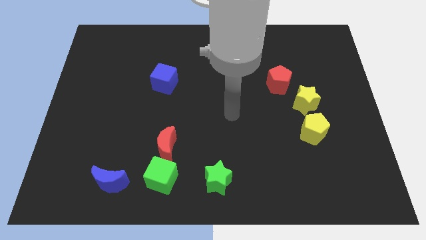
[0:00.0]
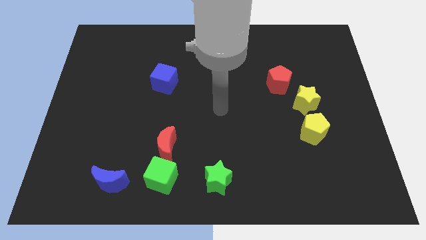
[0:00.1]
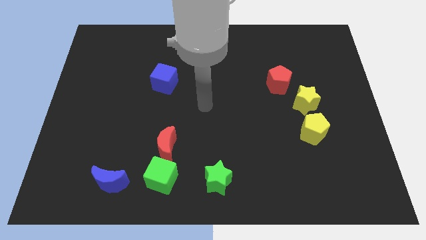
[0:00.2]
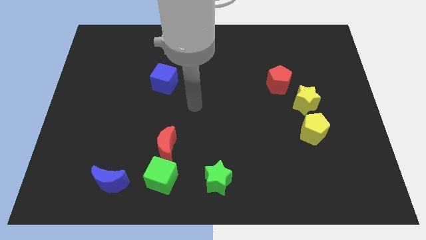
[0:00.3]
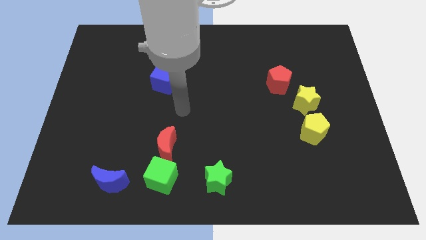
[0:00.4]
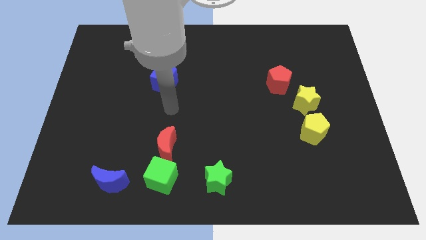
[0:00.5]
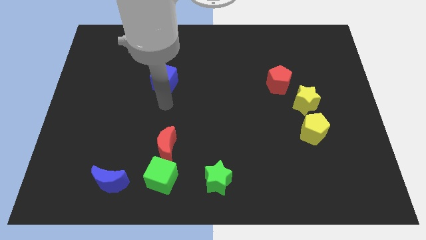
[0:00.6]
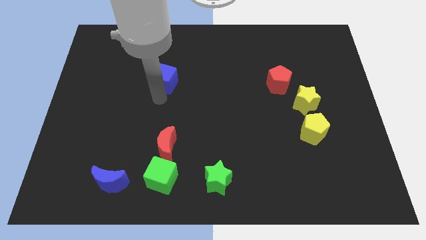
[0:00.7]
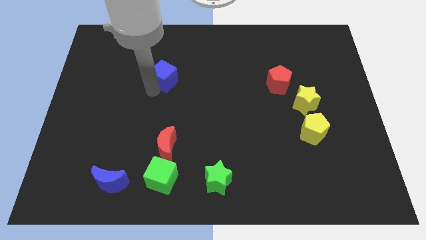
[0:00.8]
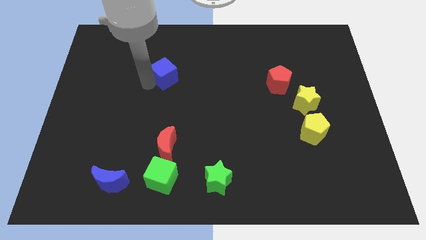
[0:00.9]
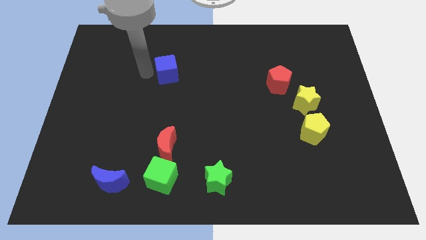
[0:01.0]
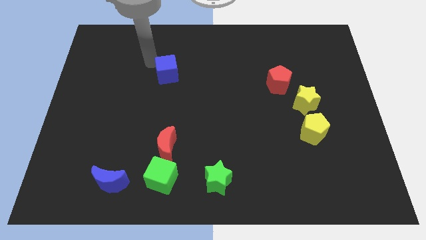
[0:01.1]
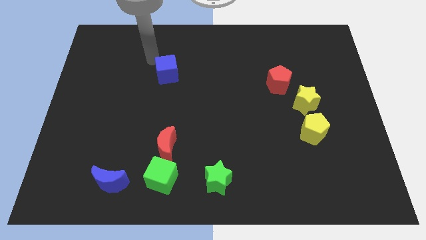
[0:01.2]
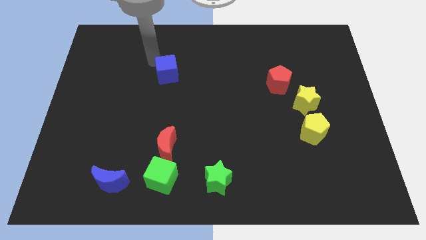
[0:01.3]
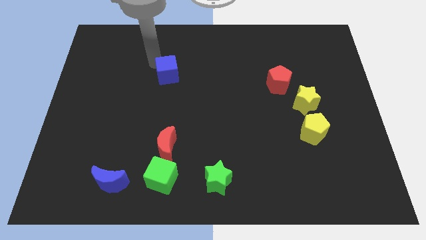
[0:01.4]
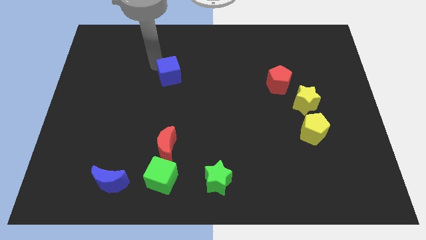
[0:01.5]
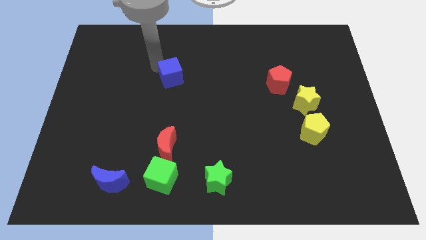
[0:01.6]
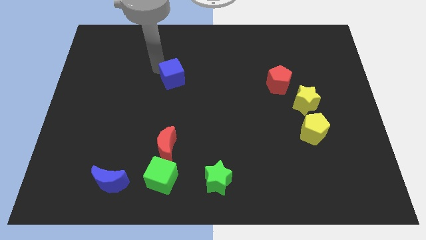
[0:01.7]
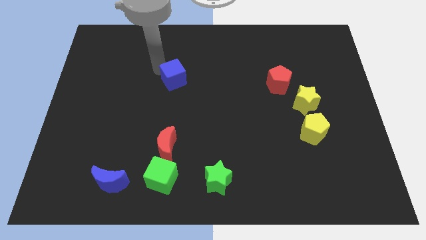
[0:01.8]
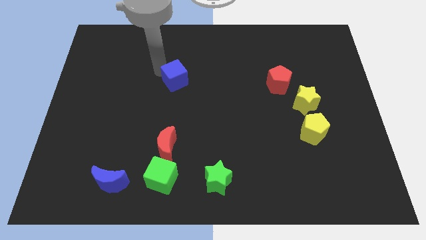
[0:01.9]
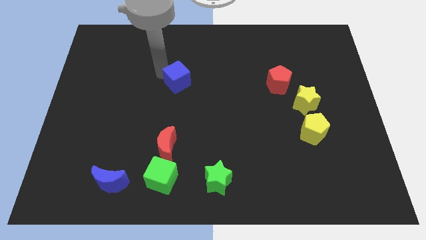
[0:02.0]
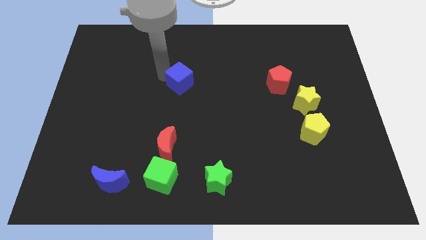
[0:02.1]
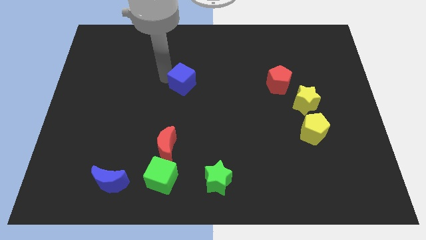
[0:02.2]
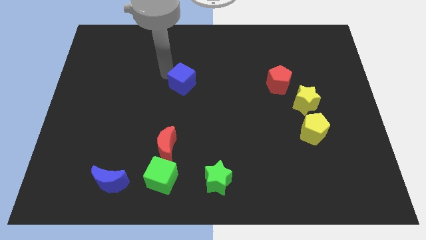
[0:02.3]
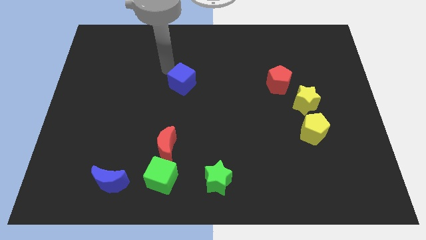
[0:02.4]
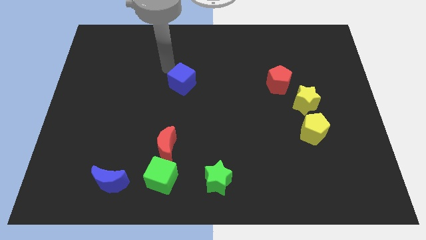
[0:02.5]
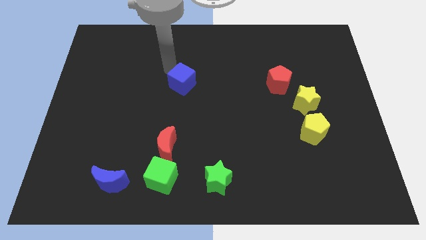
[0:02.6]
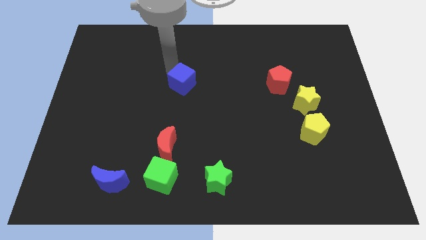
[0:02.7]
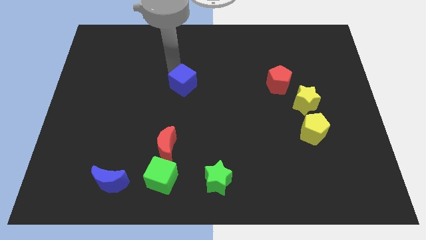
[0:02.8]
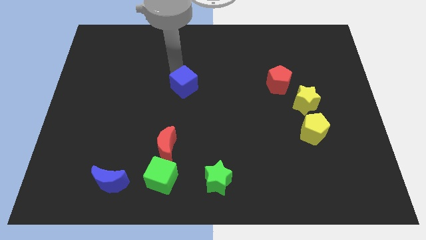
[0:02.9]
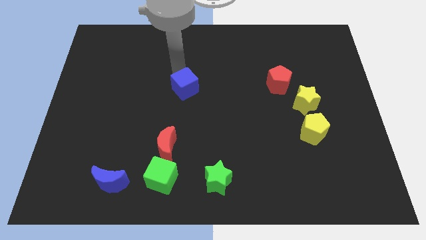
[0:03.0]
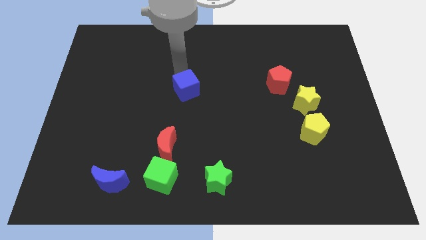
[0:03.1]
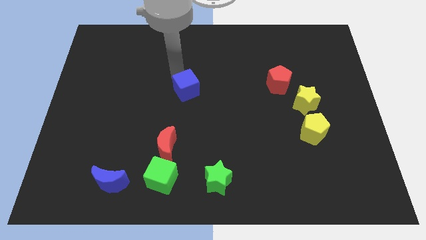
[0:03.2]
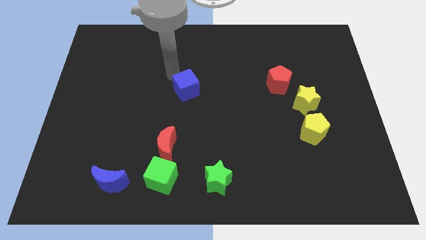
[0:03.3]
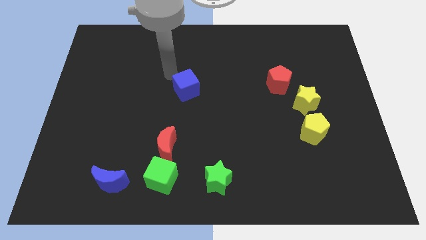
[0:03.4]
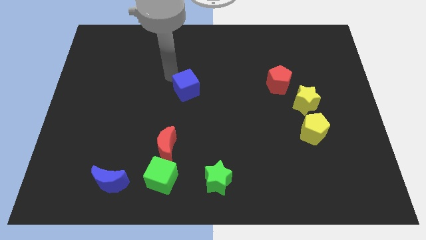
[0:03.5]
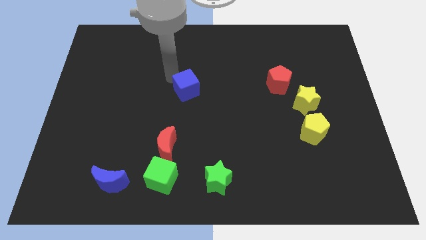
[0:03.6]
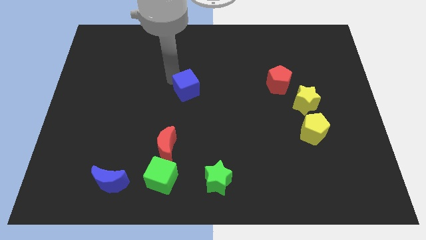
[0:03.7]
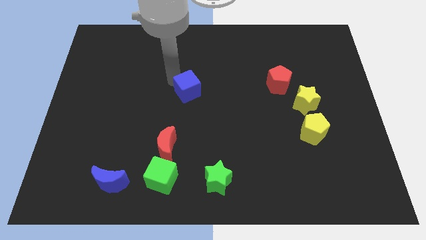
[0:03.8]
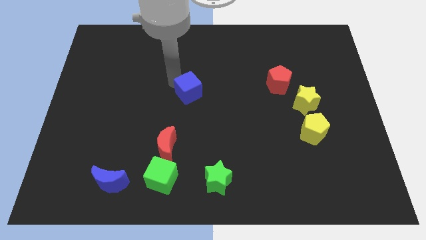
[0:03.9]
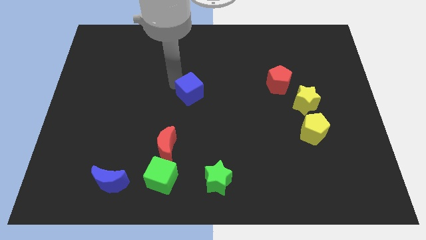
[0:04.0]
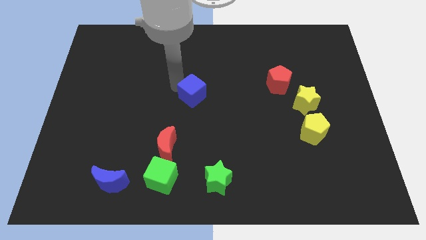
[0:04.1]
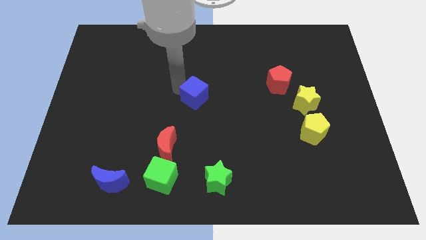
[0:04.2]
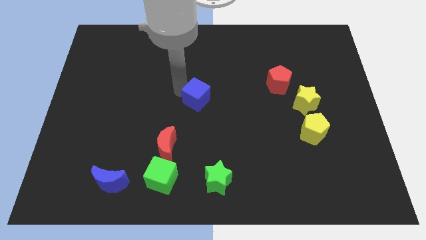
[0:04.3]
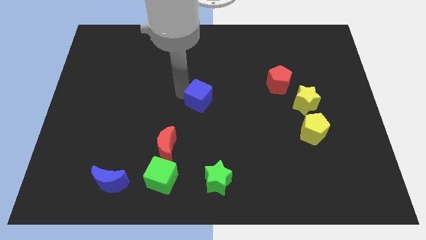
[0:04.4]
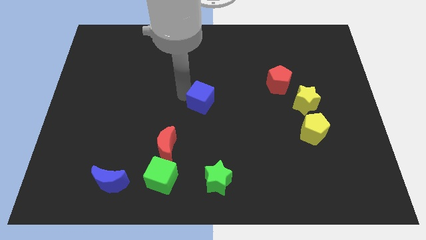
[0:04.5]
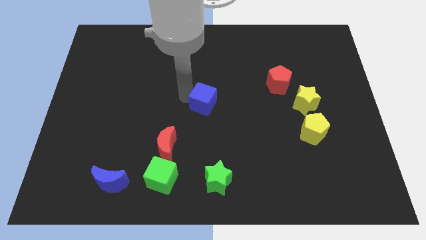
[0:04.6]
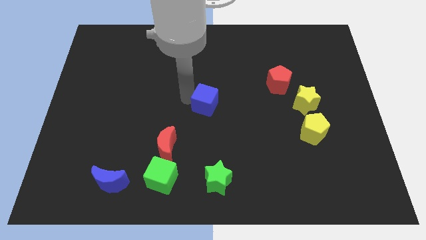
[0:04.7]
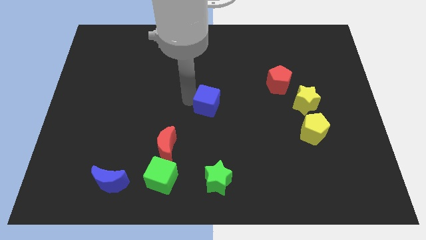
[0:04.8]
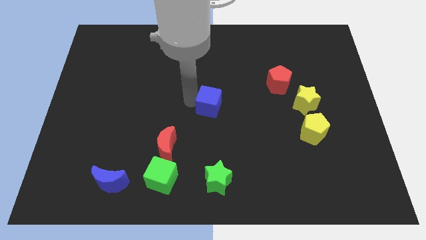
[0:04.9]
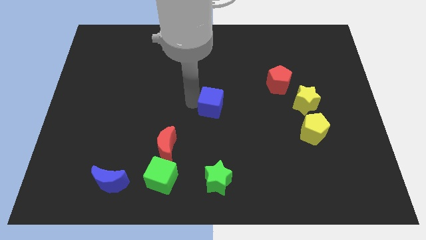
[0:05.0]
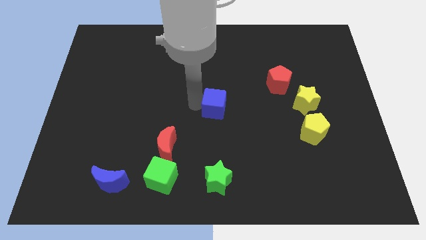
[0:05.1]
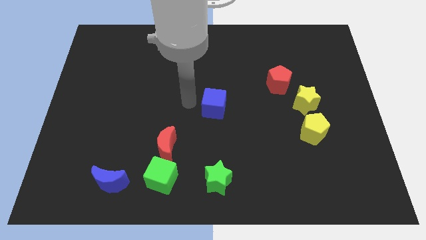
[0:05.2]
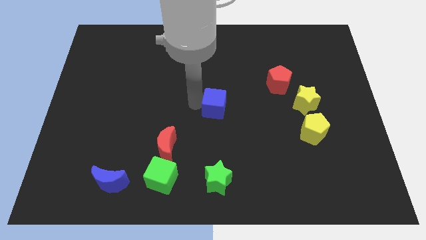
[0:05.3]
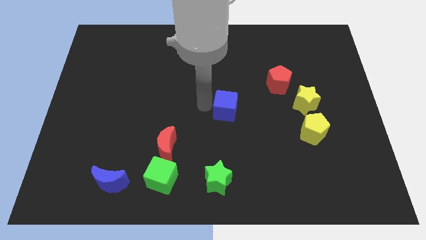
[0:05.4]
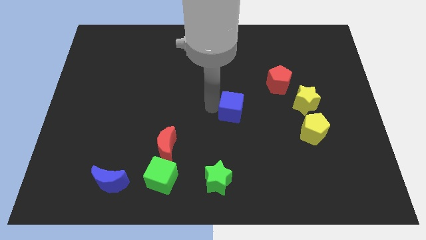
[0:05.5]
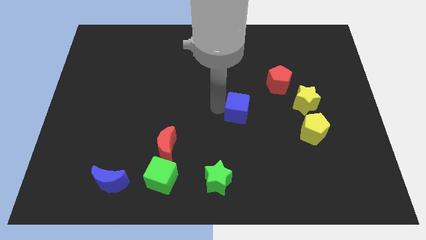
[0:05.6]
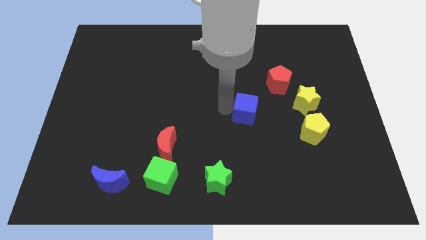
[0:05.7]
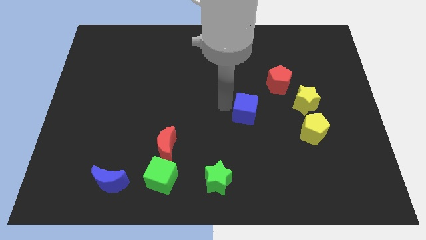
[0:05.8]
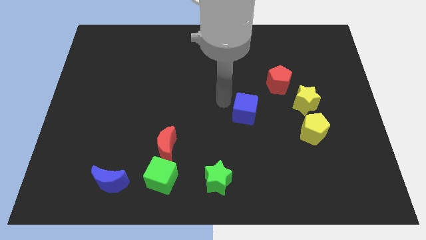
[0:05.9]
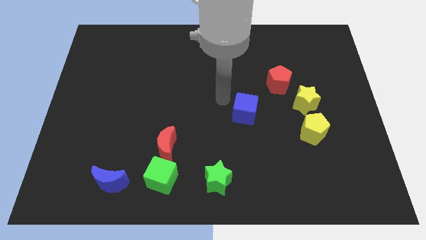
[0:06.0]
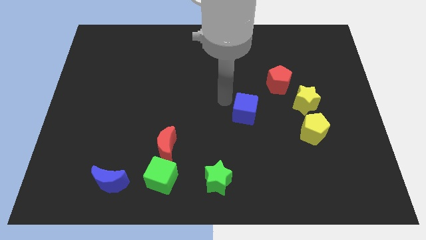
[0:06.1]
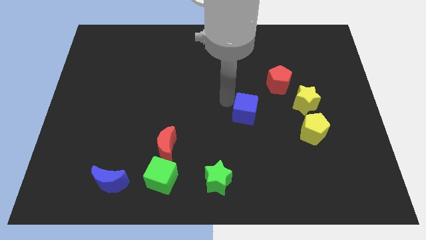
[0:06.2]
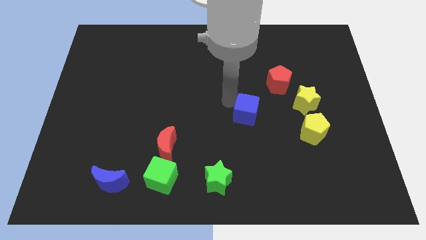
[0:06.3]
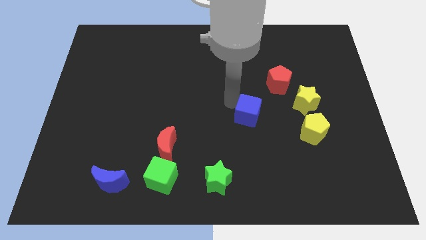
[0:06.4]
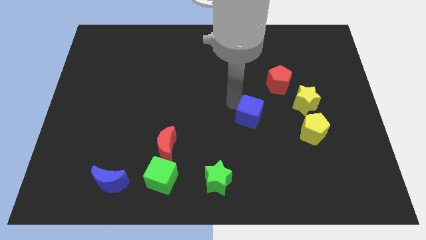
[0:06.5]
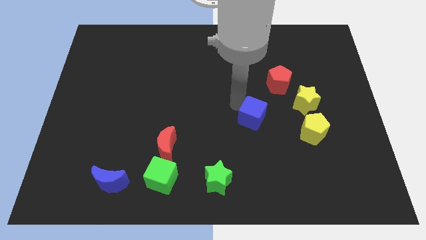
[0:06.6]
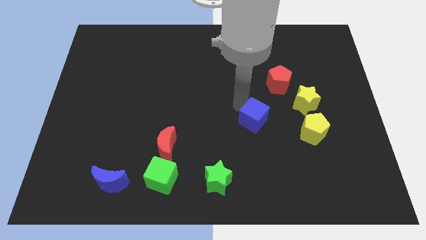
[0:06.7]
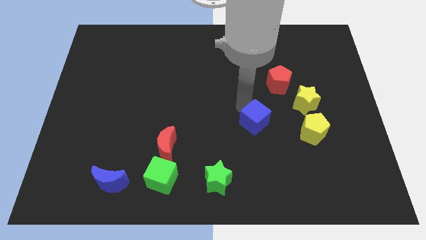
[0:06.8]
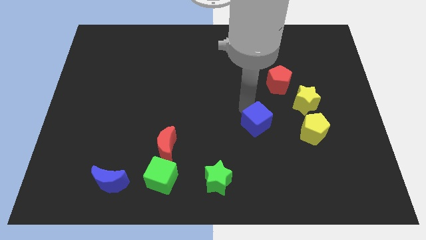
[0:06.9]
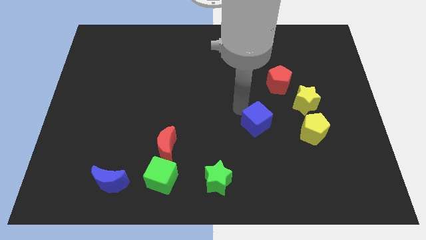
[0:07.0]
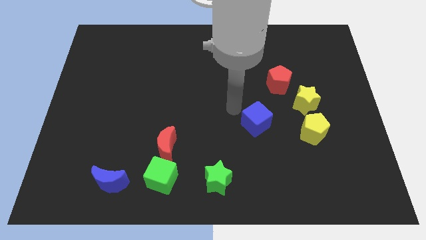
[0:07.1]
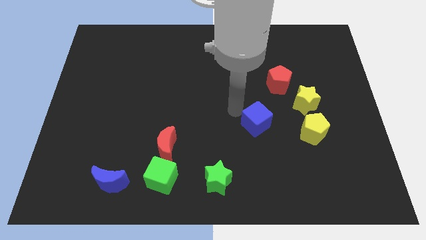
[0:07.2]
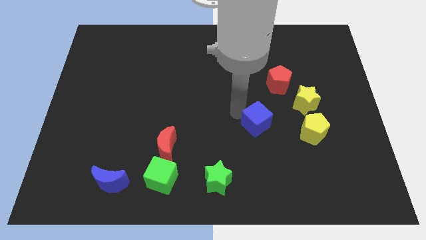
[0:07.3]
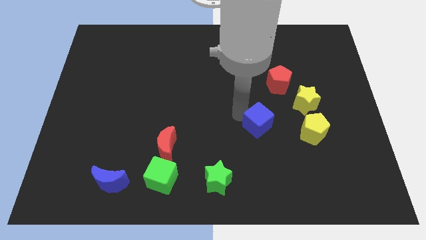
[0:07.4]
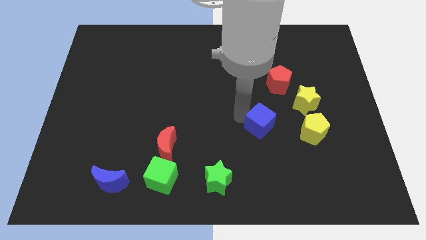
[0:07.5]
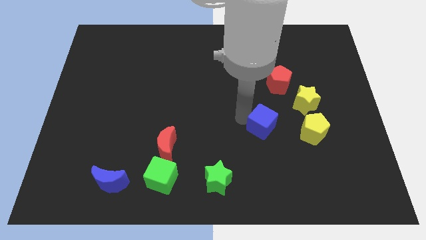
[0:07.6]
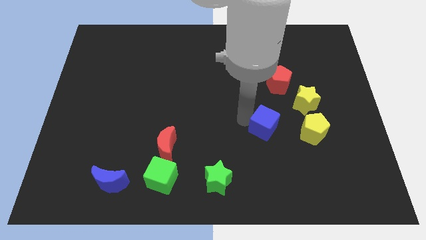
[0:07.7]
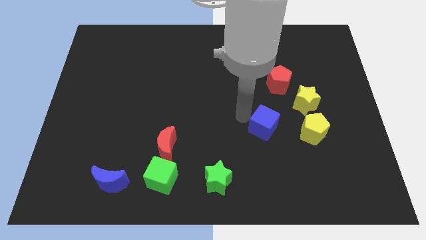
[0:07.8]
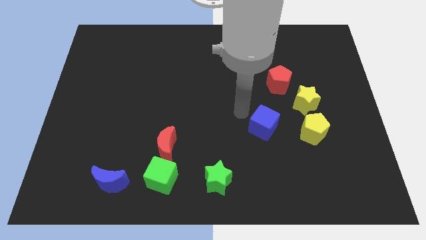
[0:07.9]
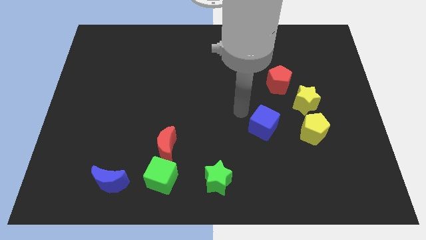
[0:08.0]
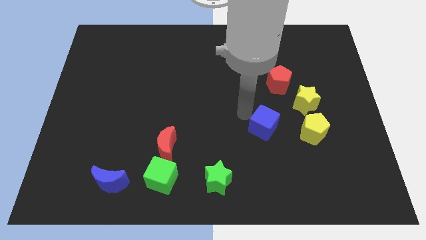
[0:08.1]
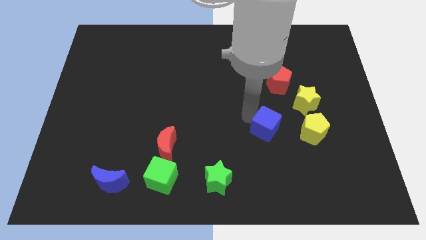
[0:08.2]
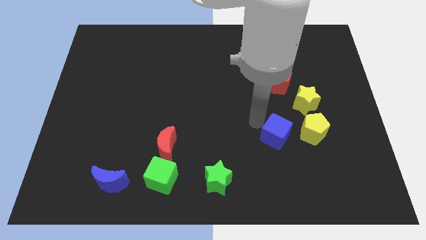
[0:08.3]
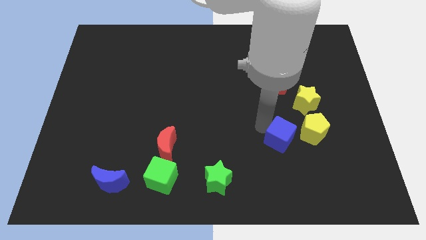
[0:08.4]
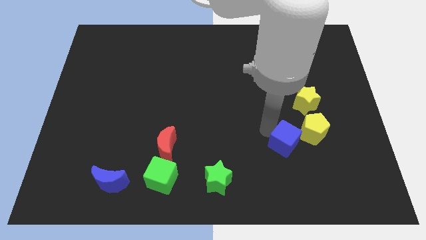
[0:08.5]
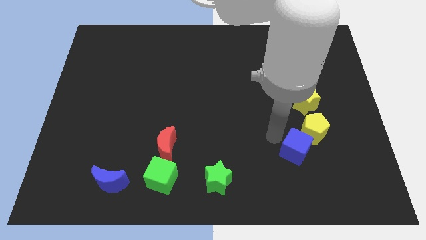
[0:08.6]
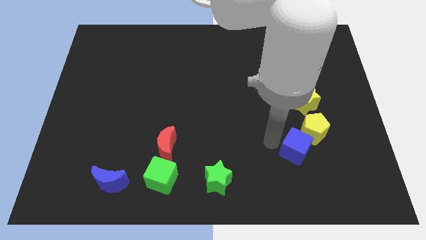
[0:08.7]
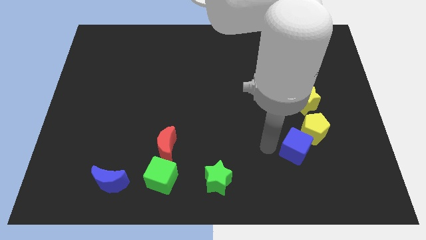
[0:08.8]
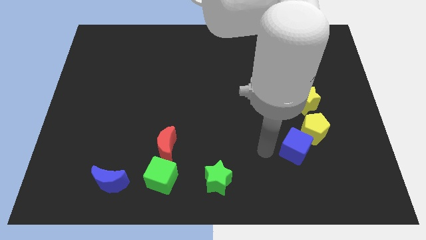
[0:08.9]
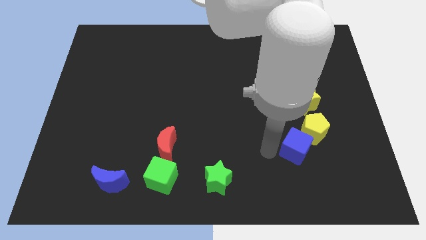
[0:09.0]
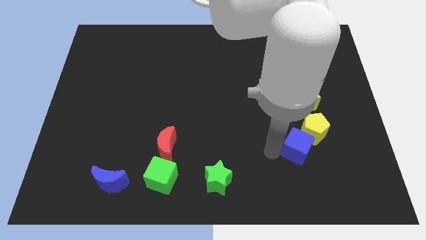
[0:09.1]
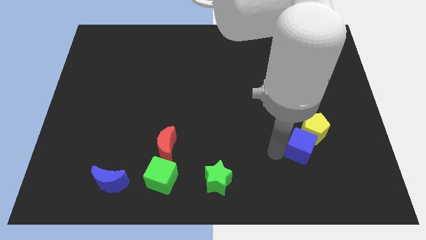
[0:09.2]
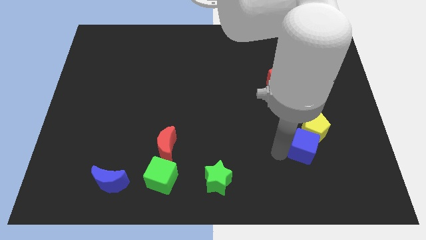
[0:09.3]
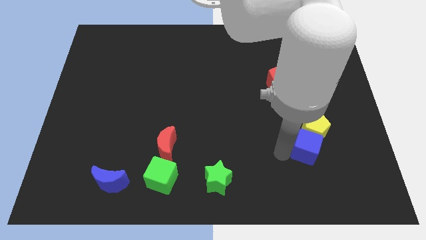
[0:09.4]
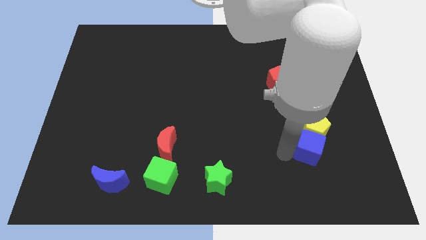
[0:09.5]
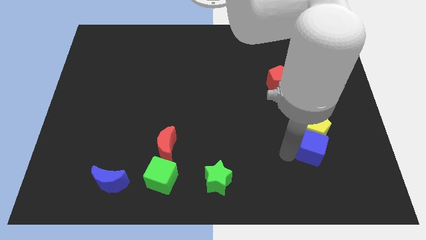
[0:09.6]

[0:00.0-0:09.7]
slide the blue cube to the bottom right side of the yellow pentagon
